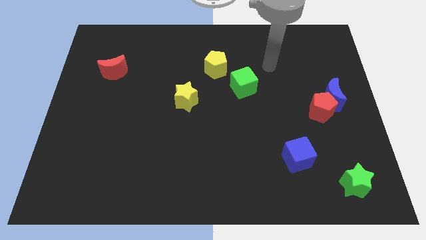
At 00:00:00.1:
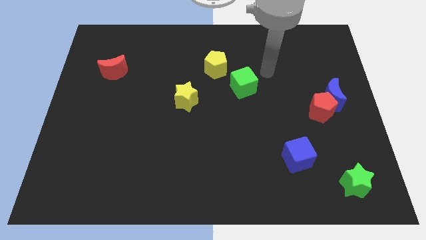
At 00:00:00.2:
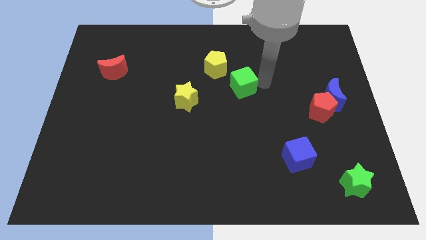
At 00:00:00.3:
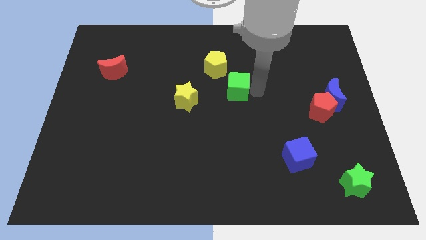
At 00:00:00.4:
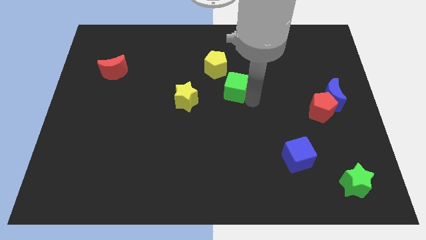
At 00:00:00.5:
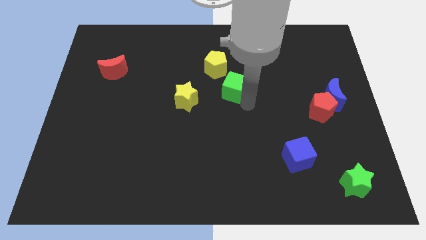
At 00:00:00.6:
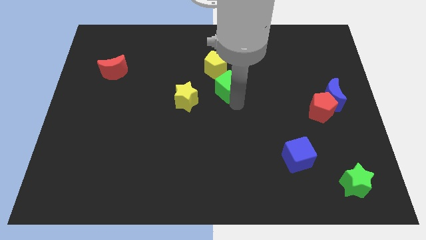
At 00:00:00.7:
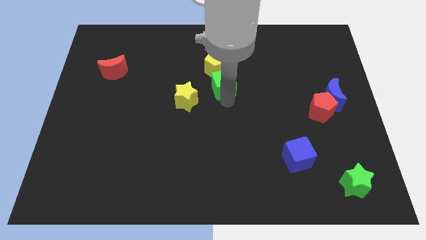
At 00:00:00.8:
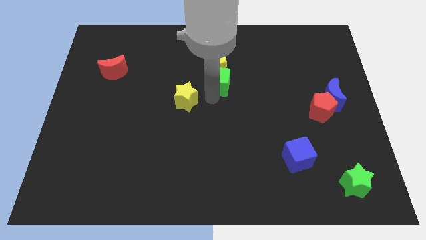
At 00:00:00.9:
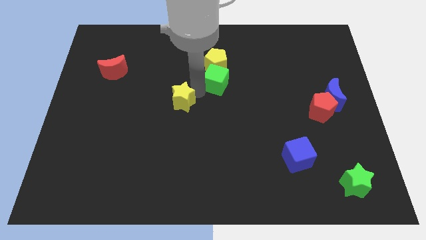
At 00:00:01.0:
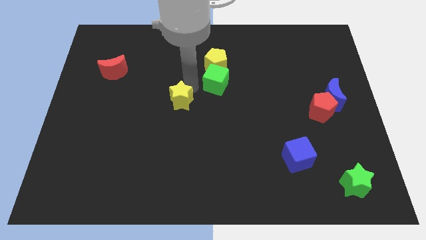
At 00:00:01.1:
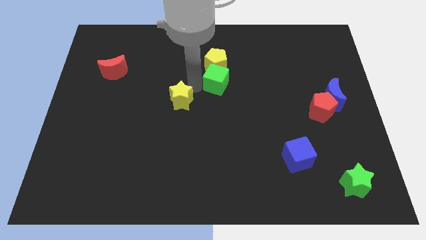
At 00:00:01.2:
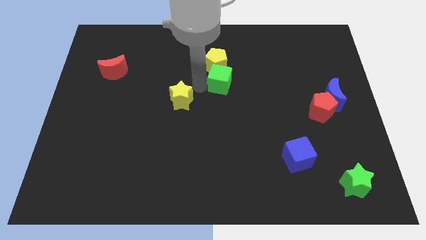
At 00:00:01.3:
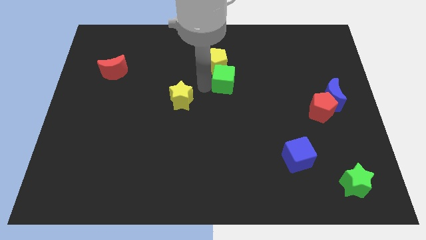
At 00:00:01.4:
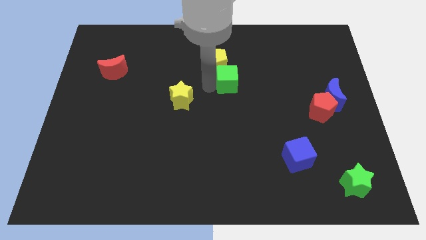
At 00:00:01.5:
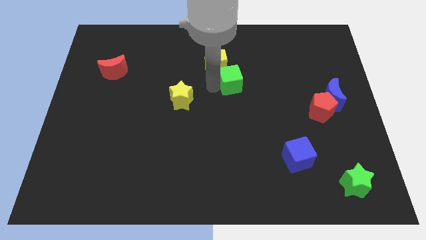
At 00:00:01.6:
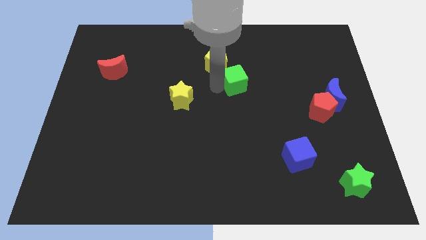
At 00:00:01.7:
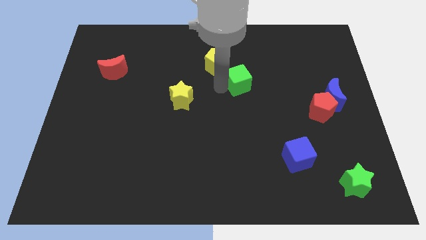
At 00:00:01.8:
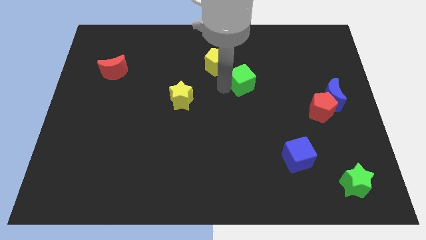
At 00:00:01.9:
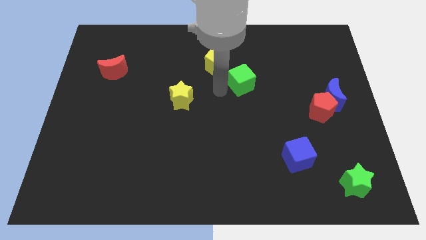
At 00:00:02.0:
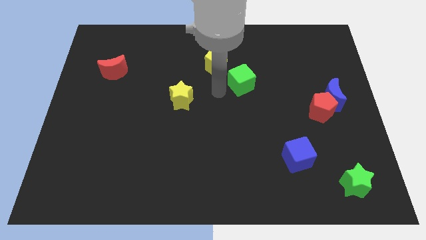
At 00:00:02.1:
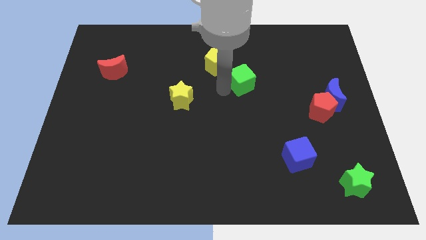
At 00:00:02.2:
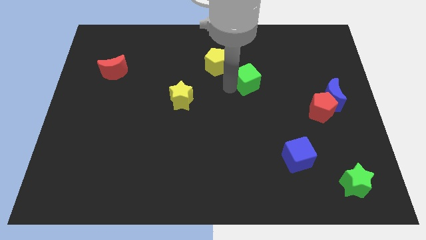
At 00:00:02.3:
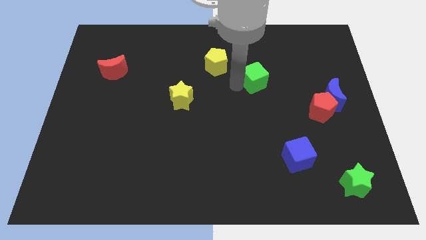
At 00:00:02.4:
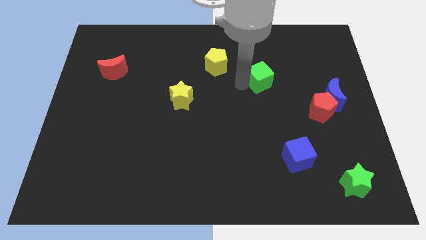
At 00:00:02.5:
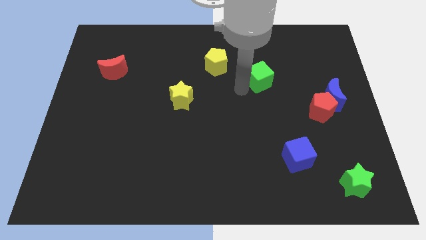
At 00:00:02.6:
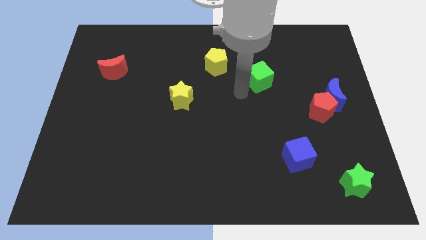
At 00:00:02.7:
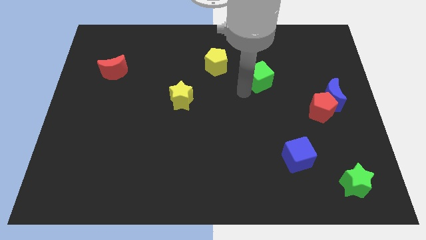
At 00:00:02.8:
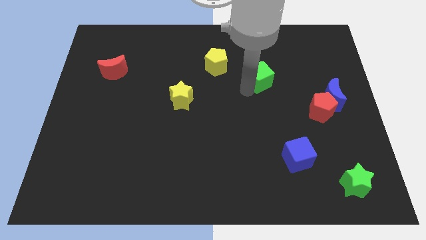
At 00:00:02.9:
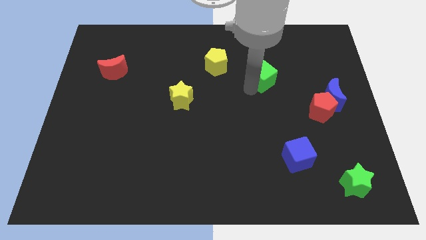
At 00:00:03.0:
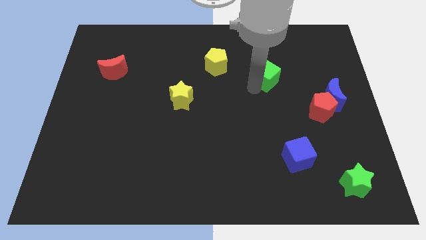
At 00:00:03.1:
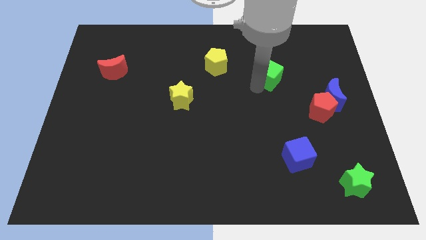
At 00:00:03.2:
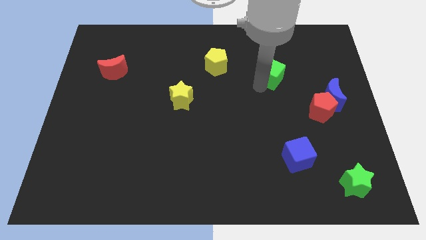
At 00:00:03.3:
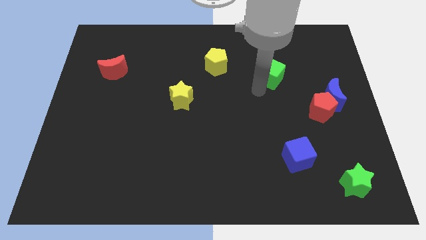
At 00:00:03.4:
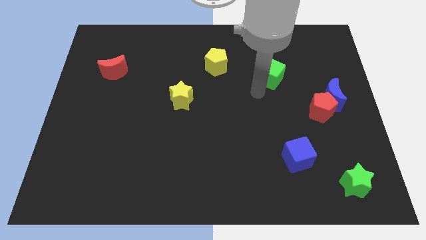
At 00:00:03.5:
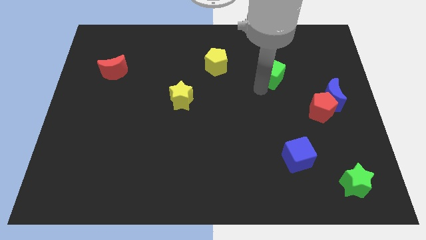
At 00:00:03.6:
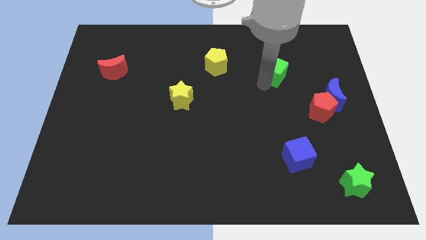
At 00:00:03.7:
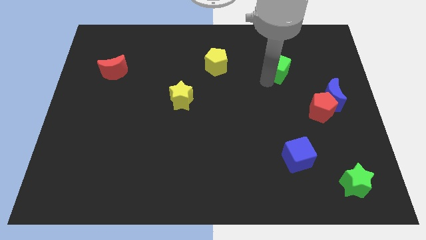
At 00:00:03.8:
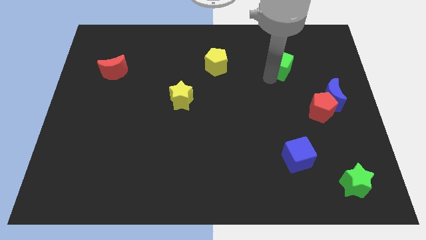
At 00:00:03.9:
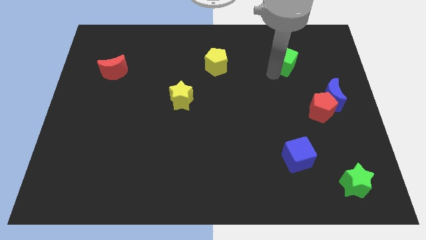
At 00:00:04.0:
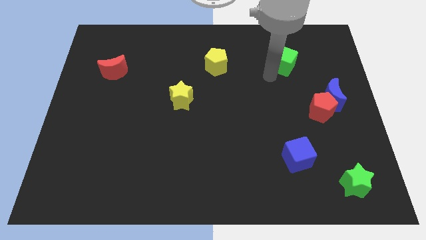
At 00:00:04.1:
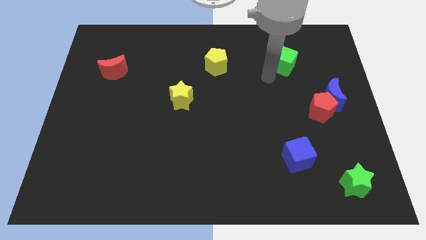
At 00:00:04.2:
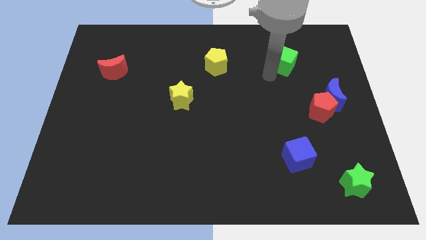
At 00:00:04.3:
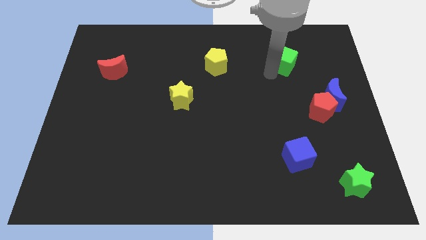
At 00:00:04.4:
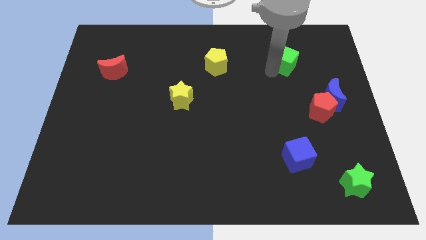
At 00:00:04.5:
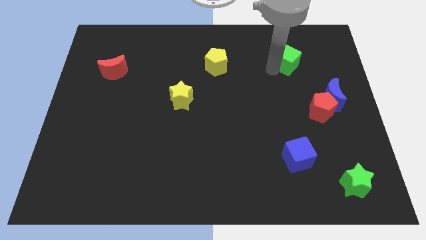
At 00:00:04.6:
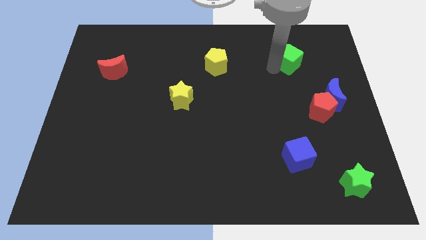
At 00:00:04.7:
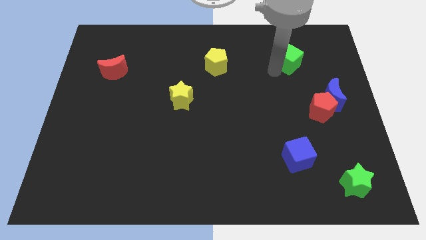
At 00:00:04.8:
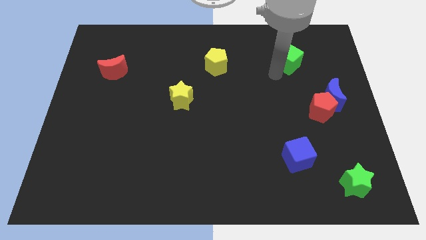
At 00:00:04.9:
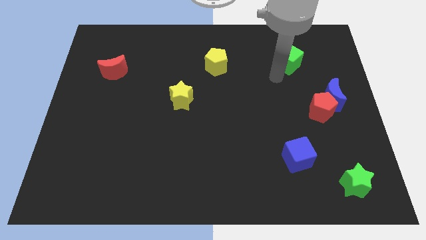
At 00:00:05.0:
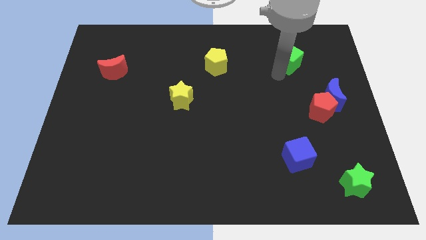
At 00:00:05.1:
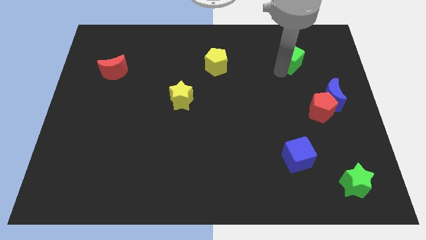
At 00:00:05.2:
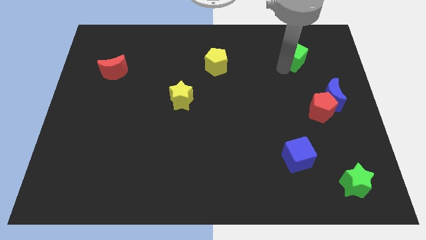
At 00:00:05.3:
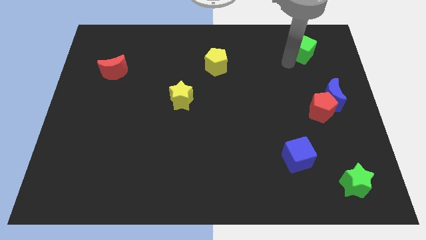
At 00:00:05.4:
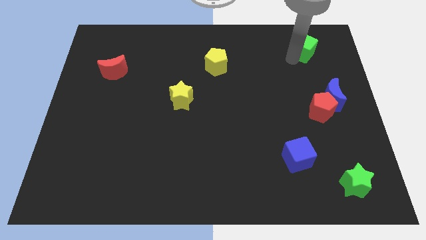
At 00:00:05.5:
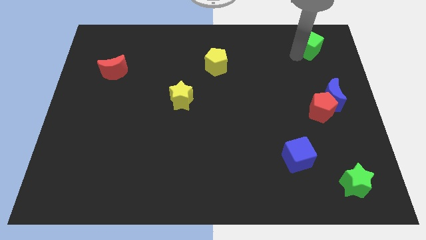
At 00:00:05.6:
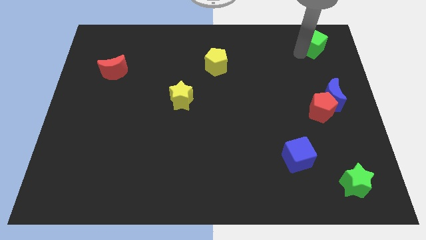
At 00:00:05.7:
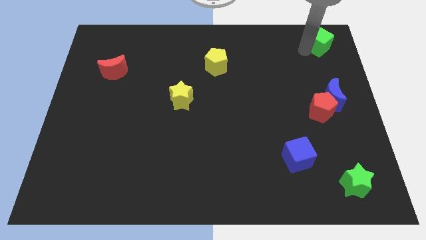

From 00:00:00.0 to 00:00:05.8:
slide the green cube to the top right corner
